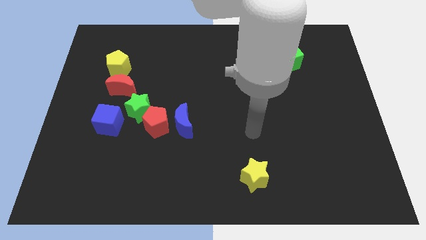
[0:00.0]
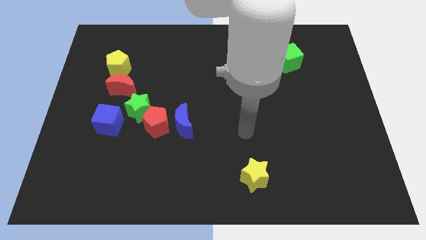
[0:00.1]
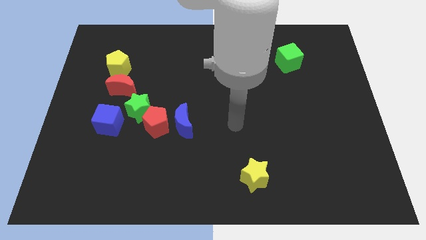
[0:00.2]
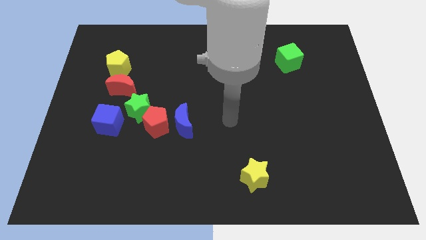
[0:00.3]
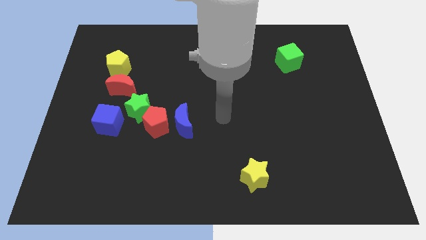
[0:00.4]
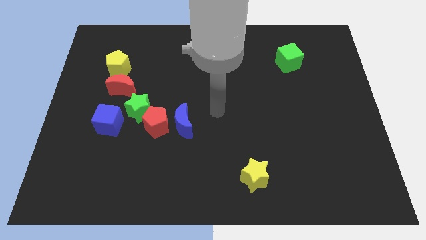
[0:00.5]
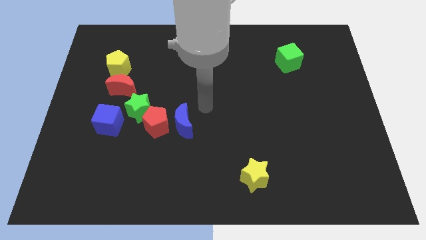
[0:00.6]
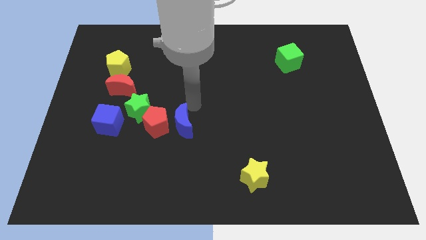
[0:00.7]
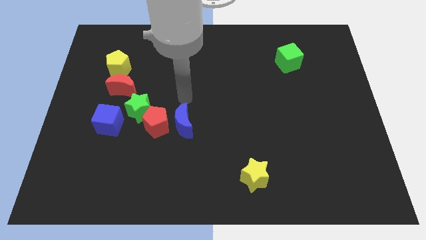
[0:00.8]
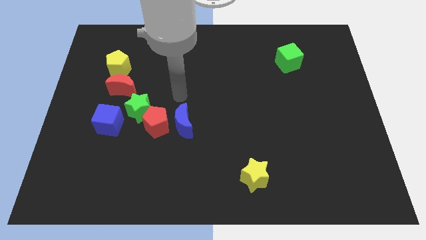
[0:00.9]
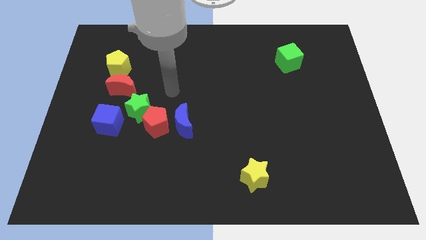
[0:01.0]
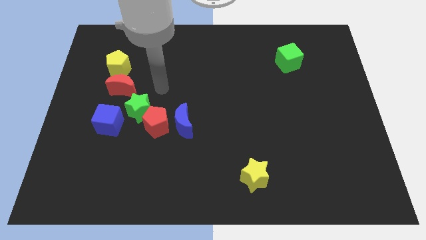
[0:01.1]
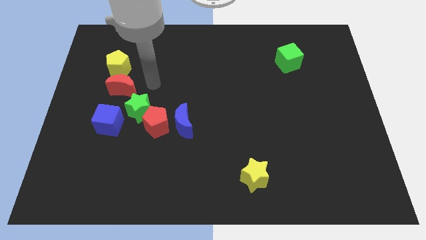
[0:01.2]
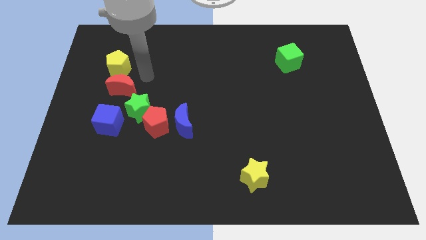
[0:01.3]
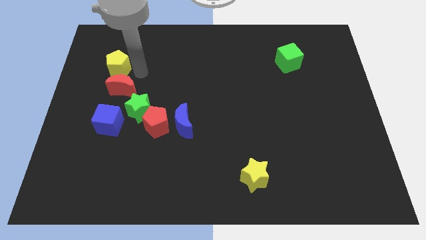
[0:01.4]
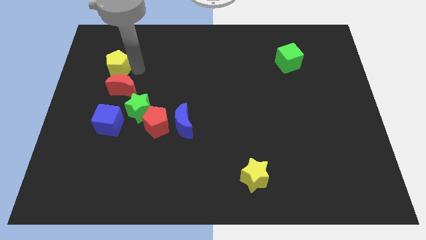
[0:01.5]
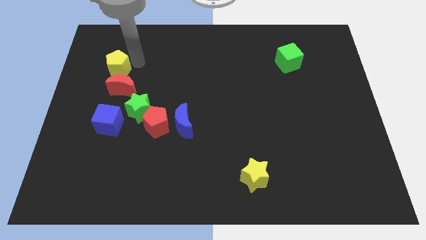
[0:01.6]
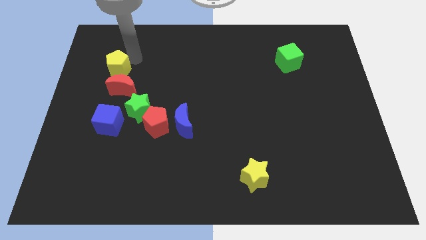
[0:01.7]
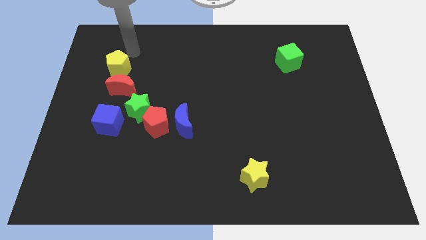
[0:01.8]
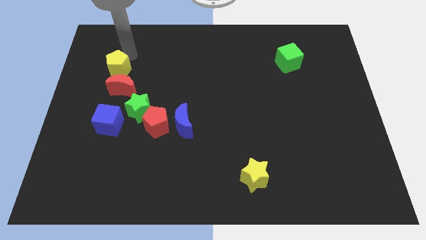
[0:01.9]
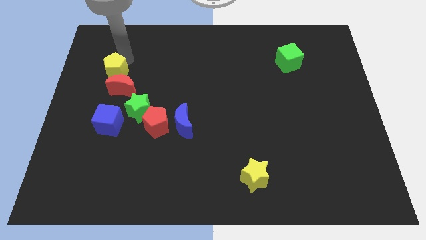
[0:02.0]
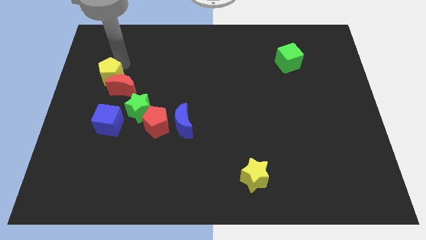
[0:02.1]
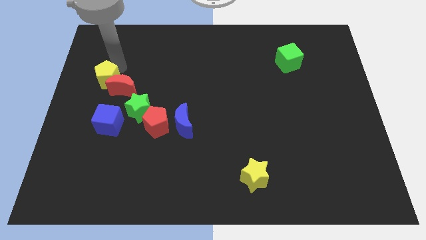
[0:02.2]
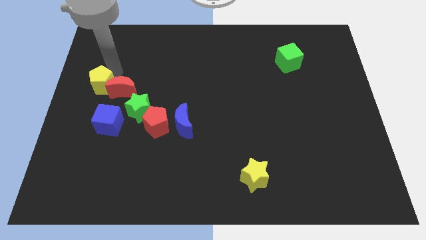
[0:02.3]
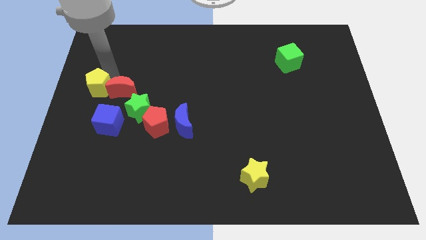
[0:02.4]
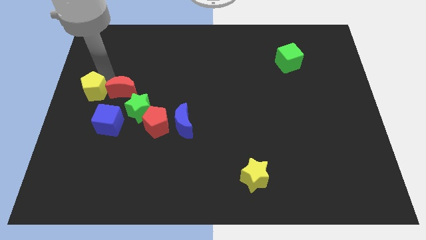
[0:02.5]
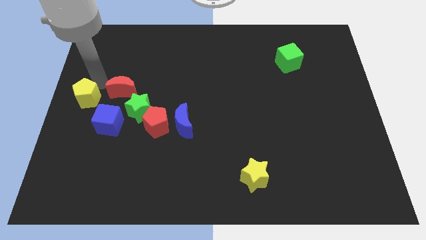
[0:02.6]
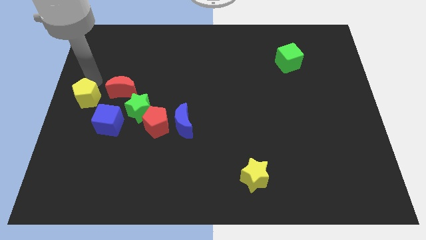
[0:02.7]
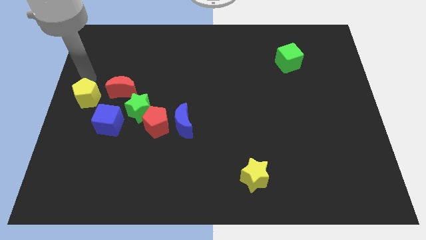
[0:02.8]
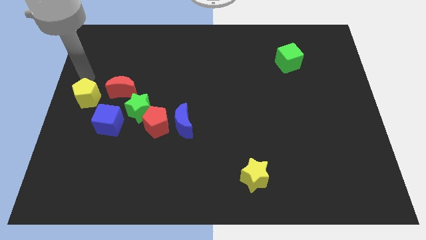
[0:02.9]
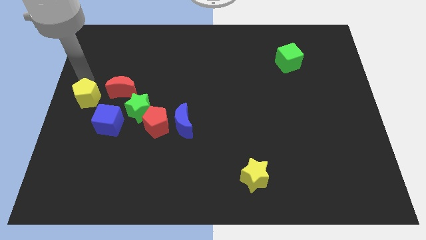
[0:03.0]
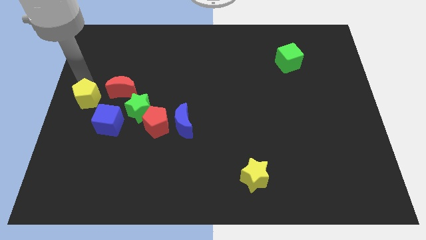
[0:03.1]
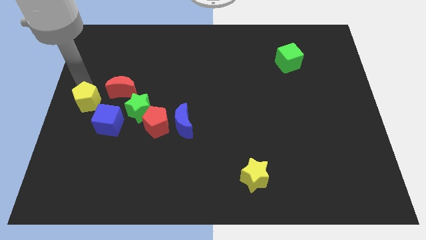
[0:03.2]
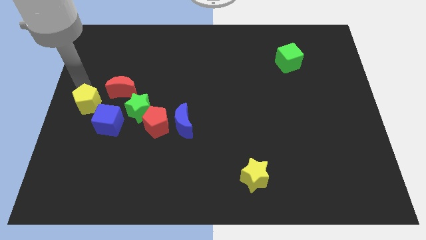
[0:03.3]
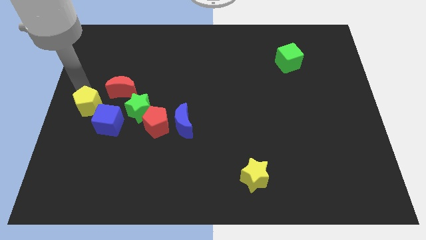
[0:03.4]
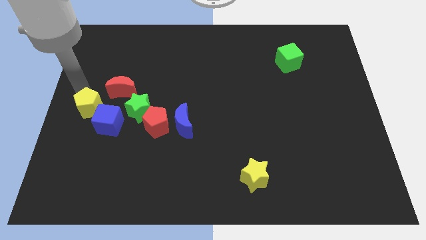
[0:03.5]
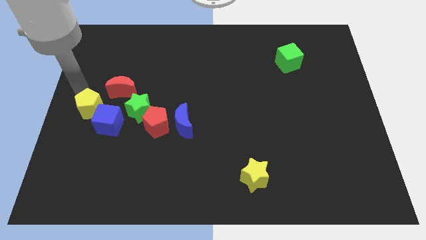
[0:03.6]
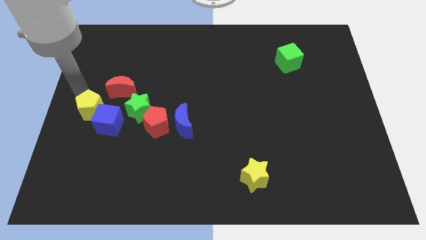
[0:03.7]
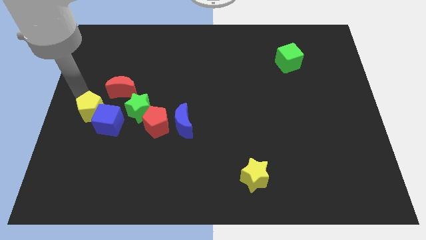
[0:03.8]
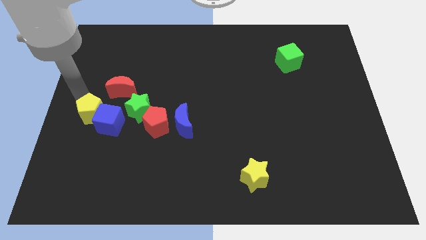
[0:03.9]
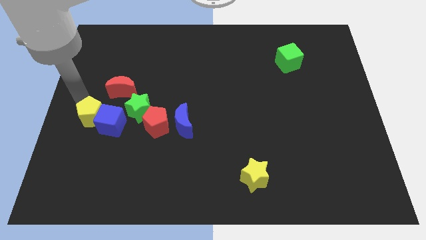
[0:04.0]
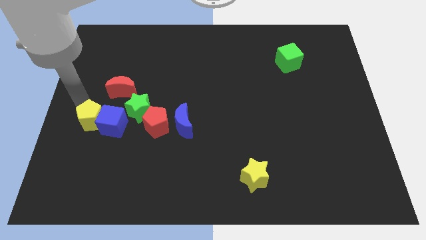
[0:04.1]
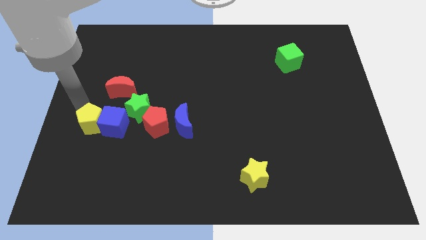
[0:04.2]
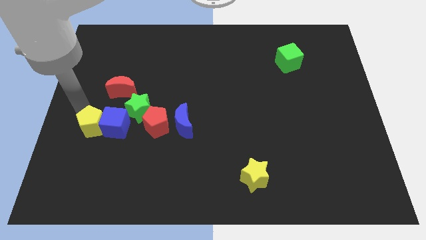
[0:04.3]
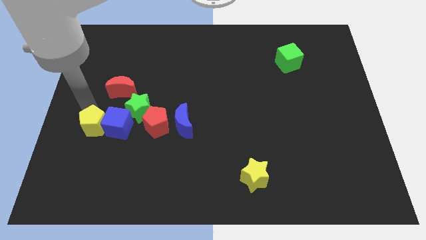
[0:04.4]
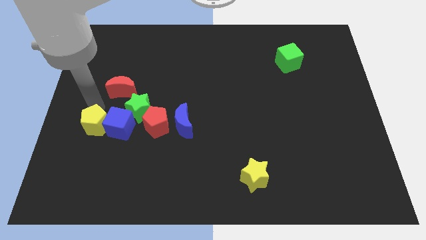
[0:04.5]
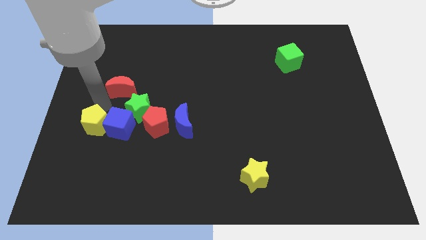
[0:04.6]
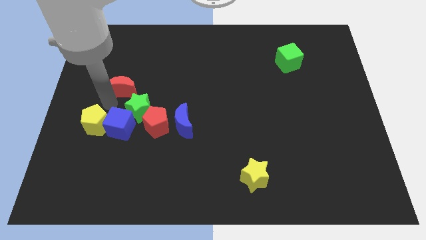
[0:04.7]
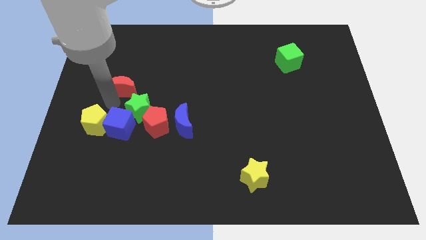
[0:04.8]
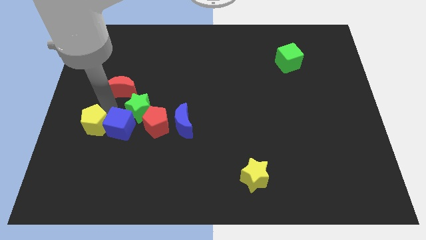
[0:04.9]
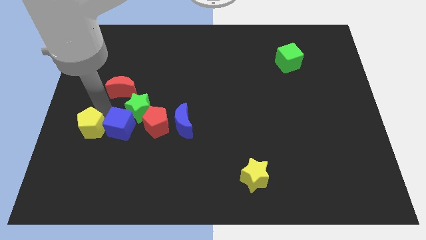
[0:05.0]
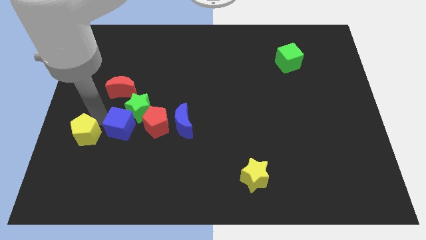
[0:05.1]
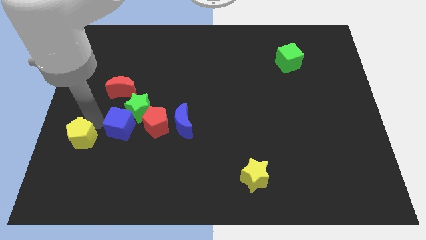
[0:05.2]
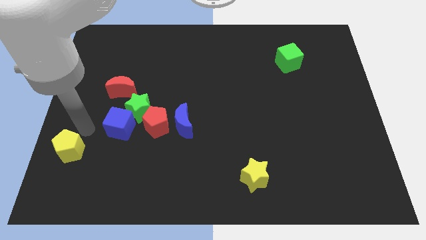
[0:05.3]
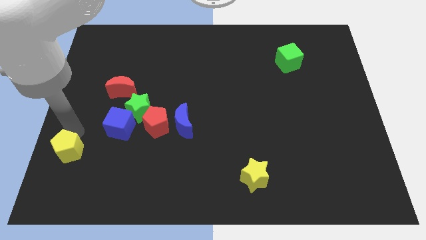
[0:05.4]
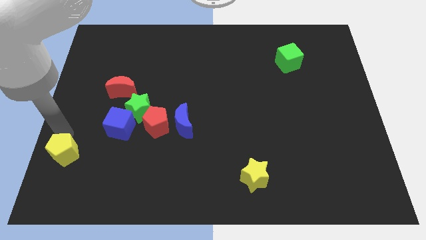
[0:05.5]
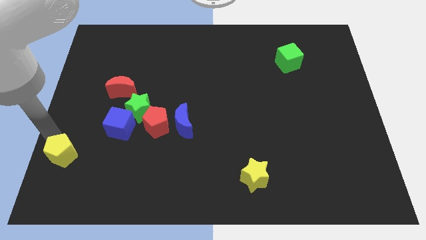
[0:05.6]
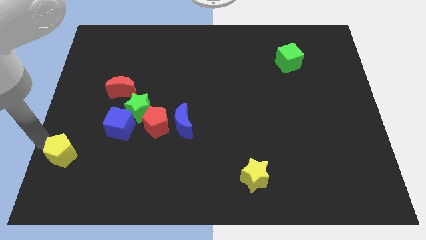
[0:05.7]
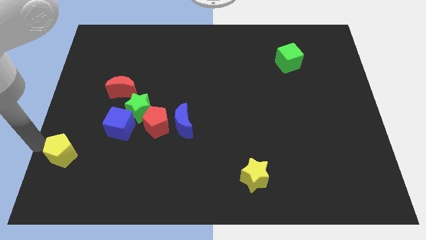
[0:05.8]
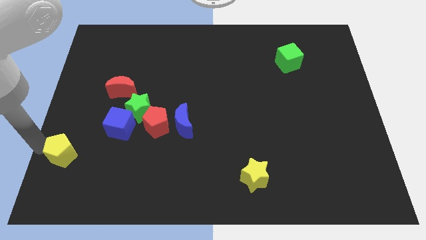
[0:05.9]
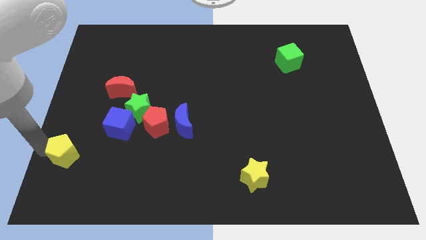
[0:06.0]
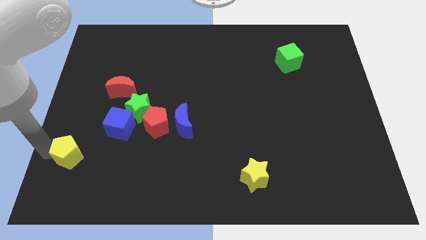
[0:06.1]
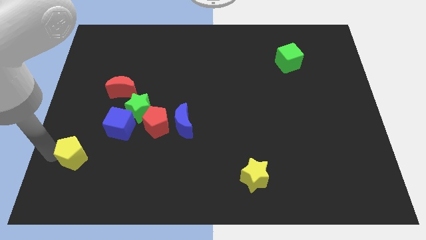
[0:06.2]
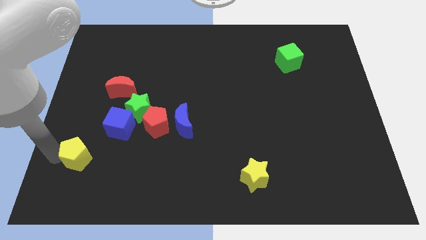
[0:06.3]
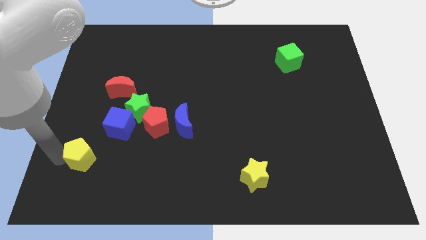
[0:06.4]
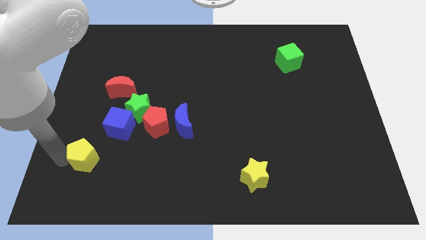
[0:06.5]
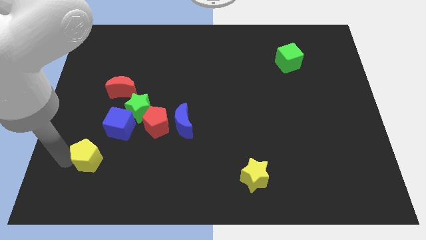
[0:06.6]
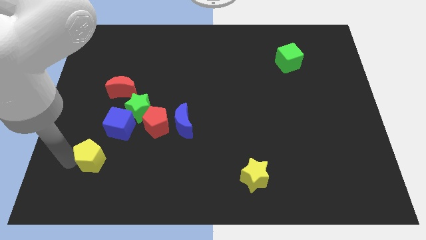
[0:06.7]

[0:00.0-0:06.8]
put the yellow pentagon to the bottom of the blue cube

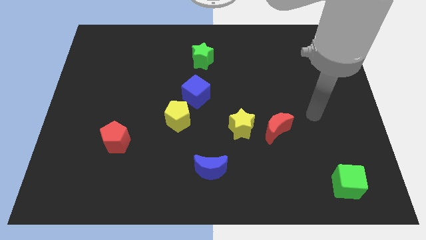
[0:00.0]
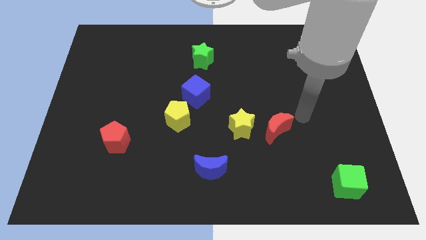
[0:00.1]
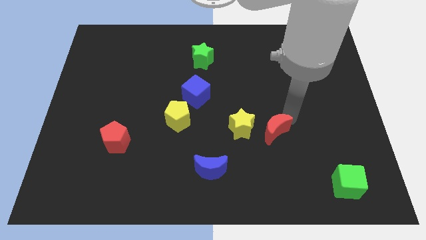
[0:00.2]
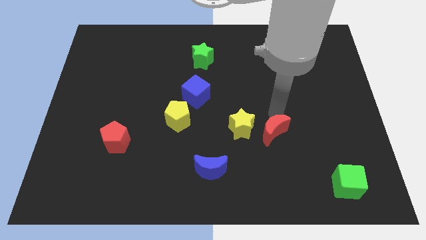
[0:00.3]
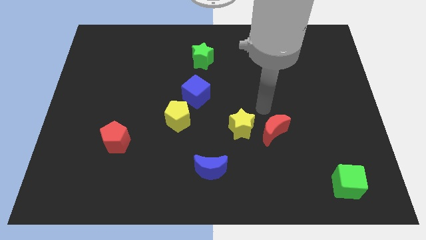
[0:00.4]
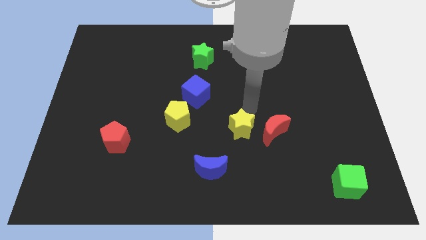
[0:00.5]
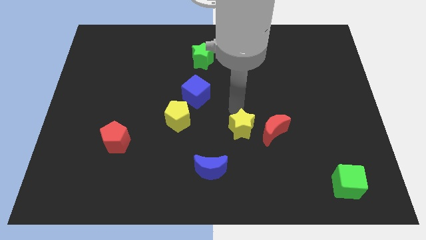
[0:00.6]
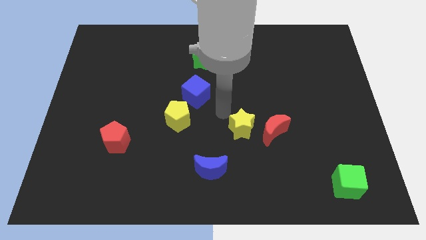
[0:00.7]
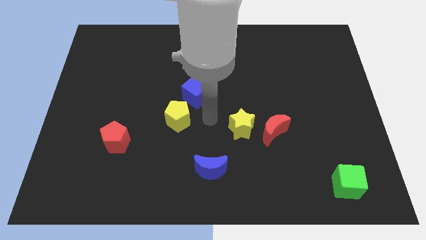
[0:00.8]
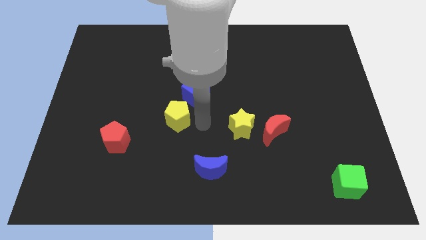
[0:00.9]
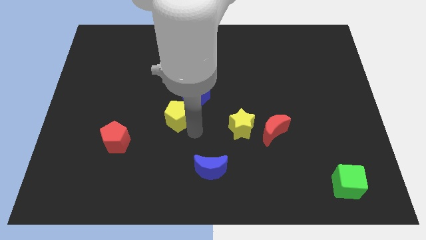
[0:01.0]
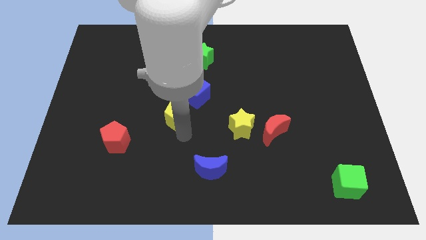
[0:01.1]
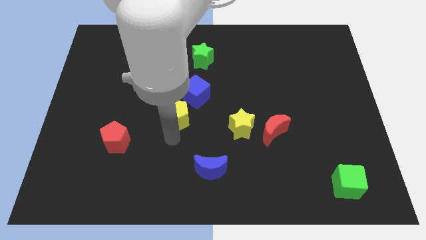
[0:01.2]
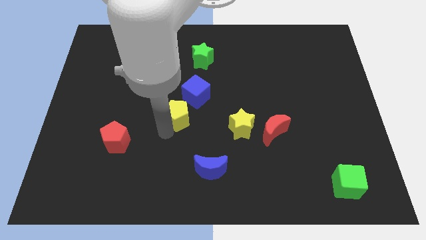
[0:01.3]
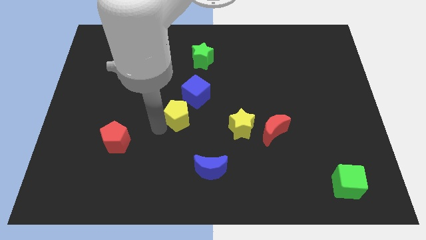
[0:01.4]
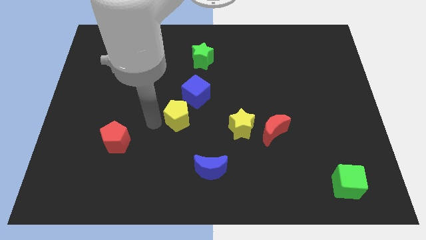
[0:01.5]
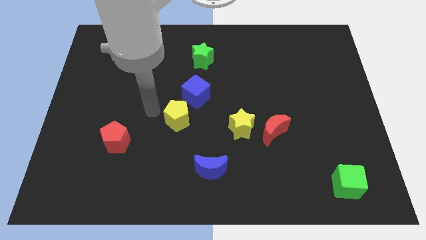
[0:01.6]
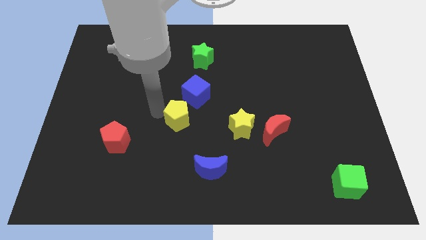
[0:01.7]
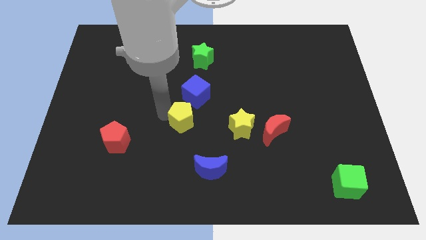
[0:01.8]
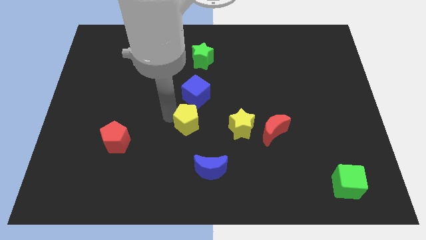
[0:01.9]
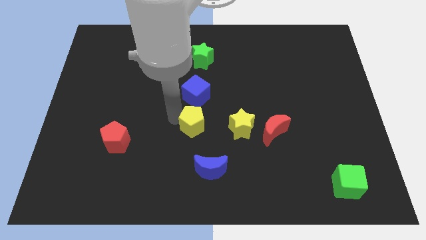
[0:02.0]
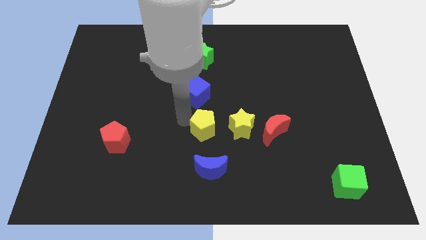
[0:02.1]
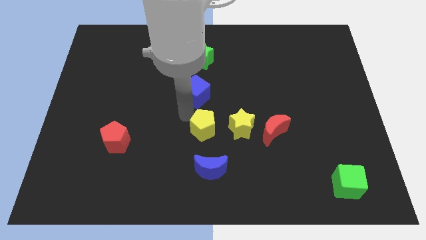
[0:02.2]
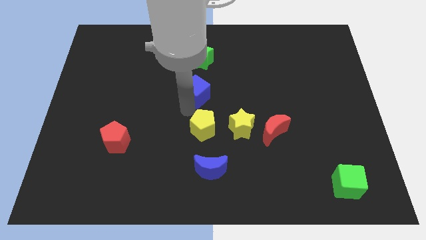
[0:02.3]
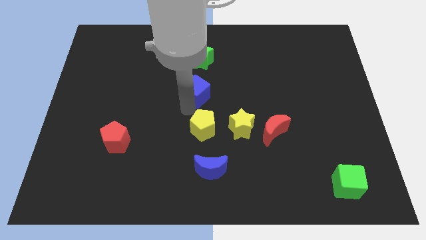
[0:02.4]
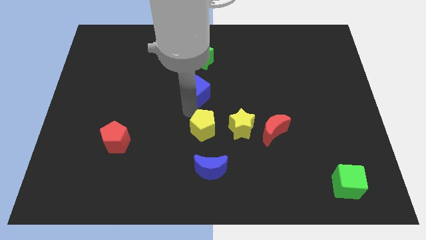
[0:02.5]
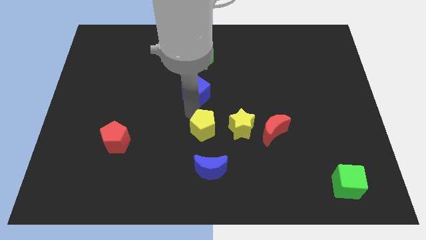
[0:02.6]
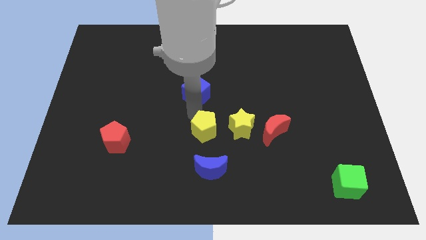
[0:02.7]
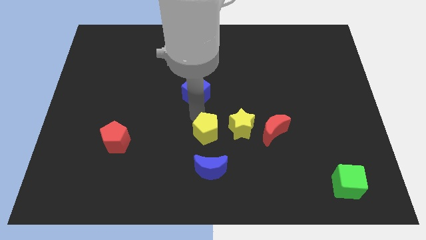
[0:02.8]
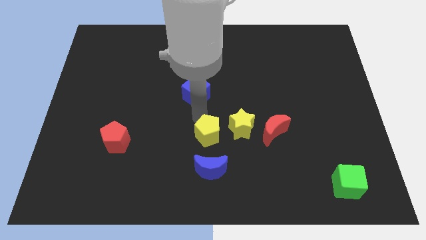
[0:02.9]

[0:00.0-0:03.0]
push the yellow pentagon to the bottom left of the yellow star
